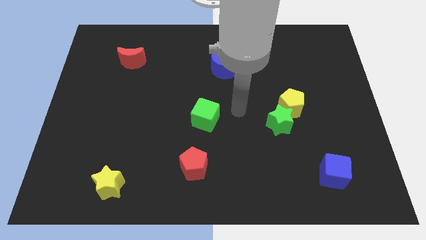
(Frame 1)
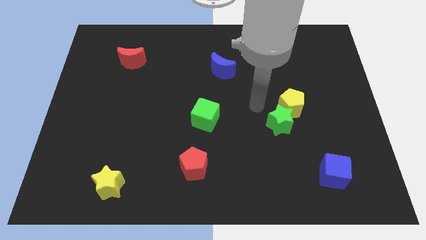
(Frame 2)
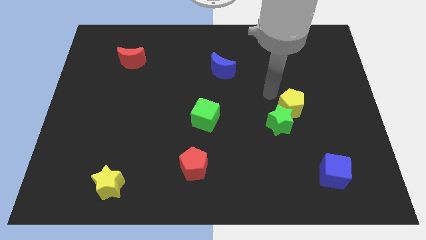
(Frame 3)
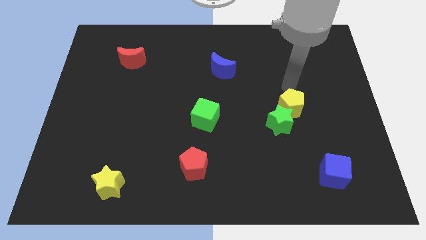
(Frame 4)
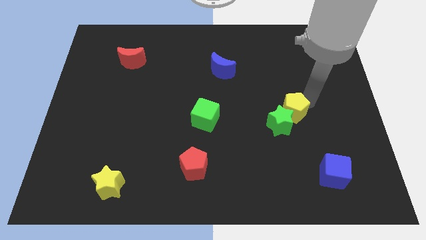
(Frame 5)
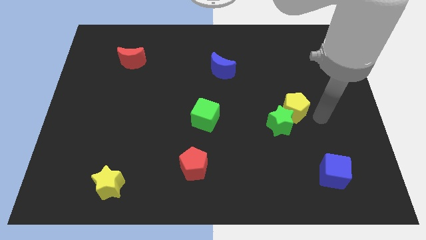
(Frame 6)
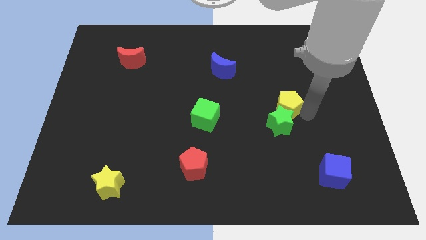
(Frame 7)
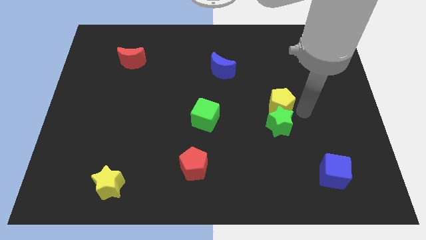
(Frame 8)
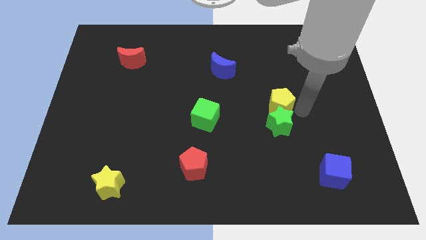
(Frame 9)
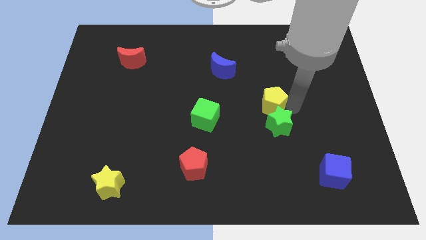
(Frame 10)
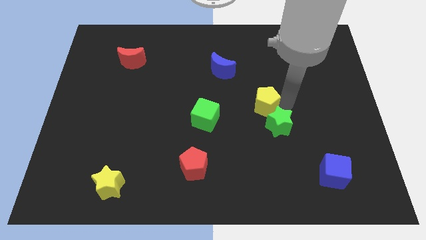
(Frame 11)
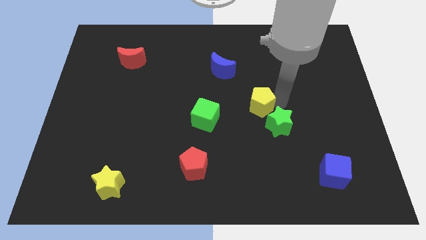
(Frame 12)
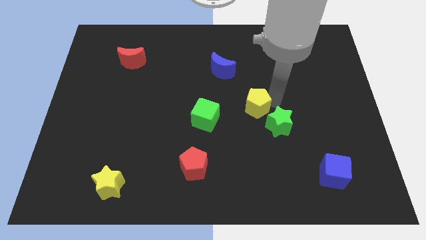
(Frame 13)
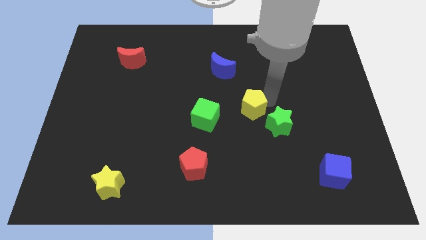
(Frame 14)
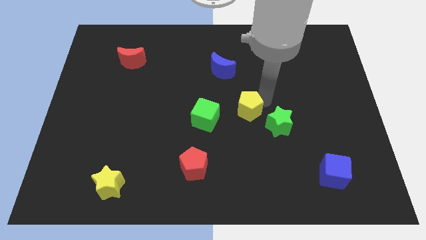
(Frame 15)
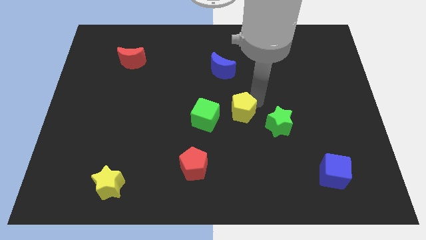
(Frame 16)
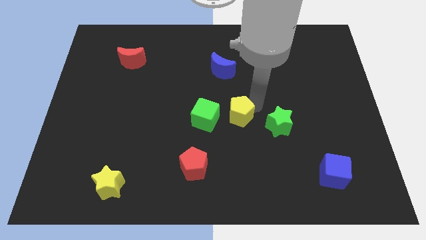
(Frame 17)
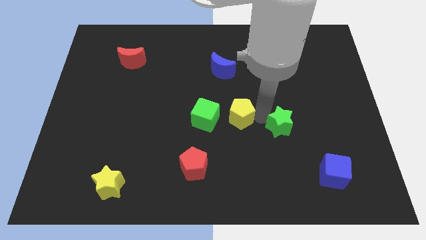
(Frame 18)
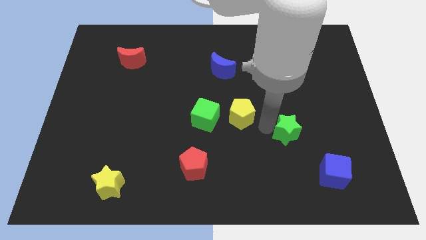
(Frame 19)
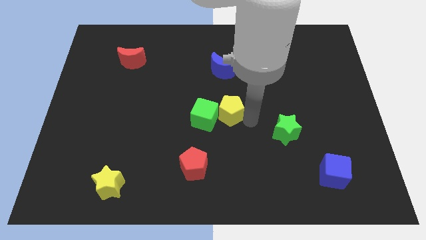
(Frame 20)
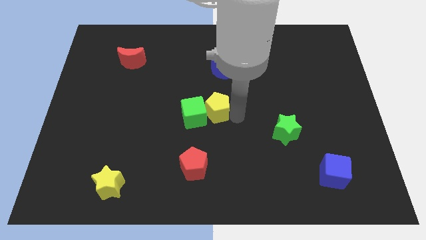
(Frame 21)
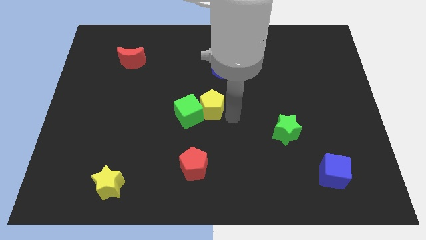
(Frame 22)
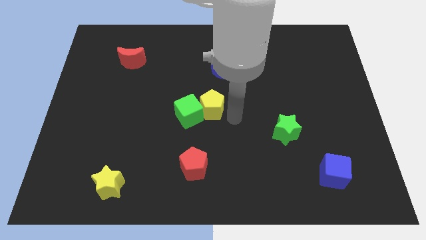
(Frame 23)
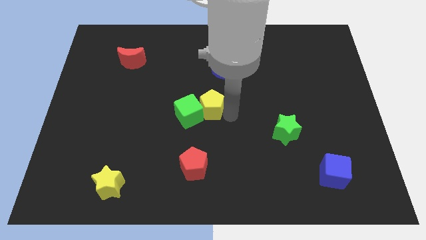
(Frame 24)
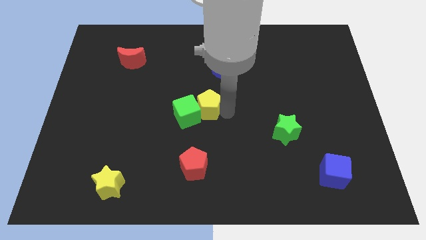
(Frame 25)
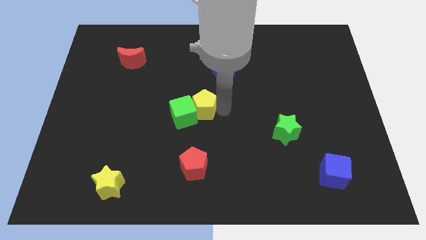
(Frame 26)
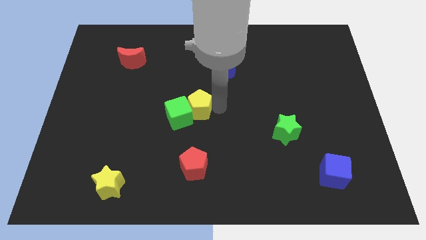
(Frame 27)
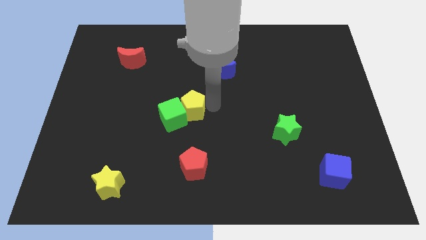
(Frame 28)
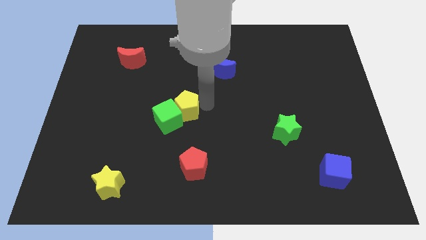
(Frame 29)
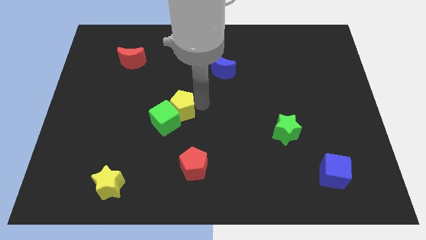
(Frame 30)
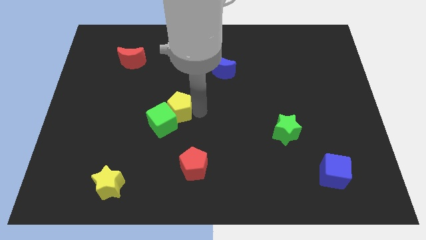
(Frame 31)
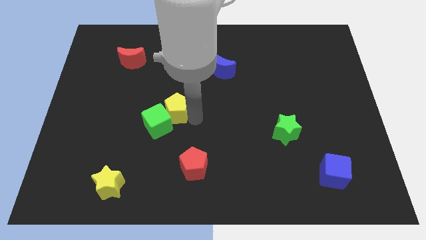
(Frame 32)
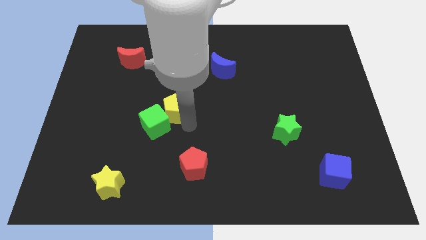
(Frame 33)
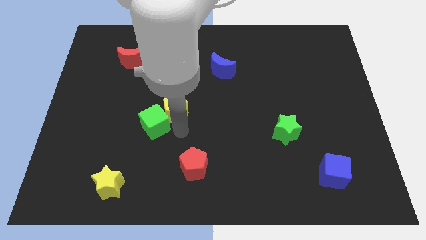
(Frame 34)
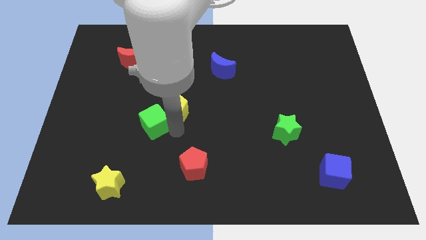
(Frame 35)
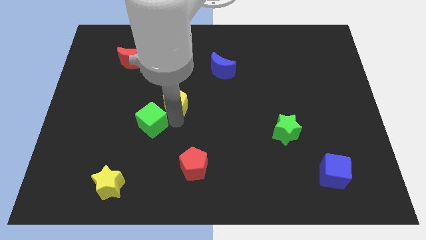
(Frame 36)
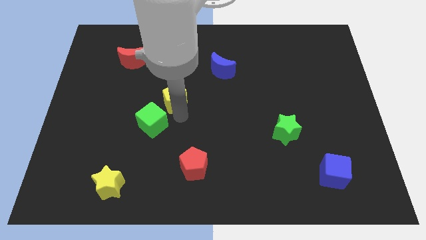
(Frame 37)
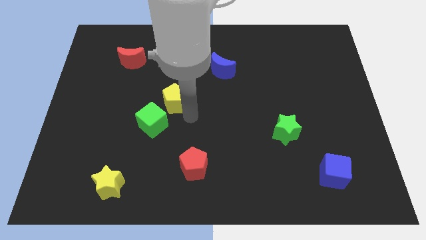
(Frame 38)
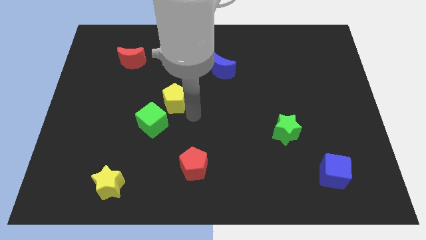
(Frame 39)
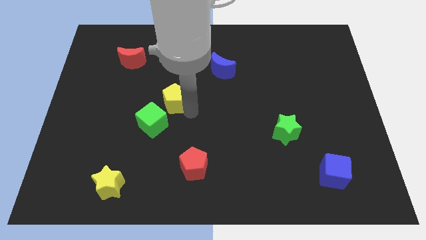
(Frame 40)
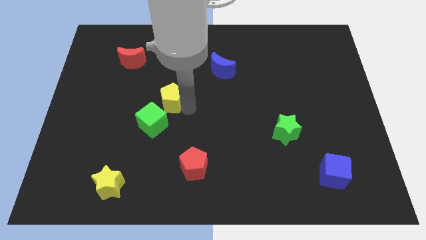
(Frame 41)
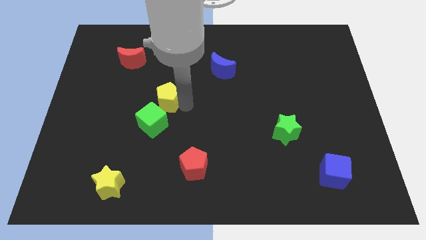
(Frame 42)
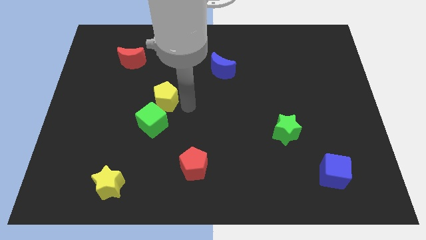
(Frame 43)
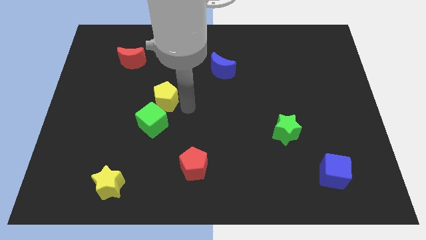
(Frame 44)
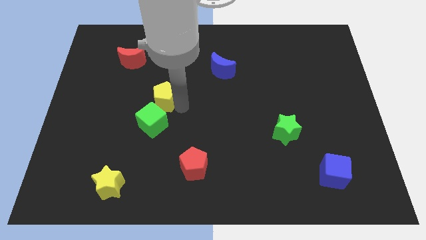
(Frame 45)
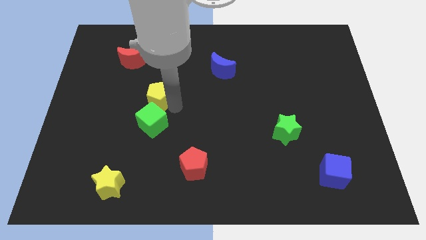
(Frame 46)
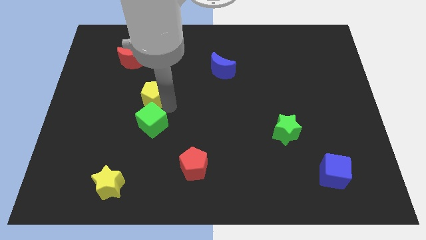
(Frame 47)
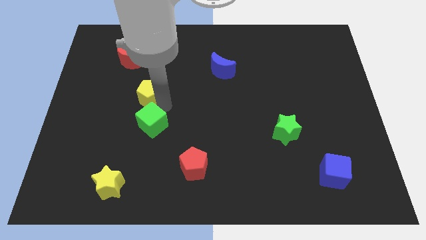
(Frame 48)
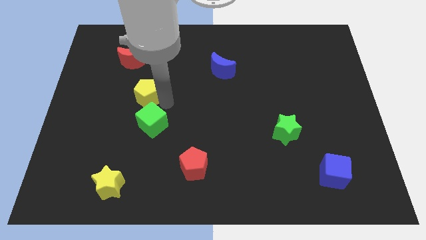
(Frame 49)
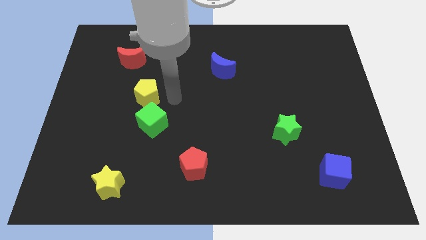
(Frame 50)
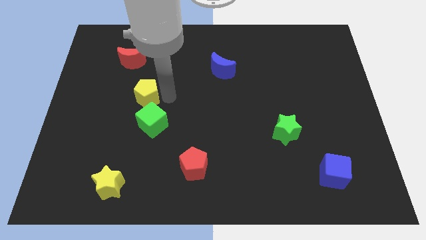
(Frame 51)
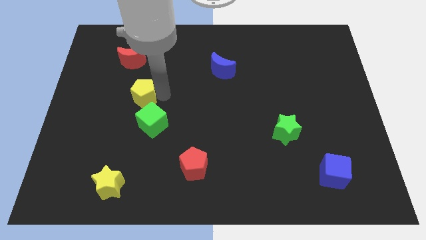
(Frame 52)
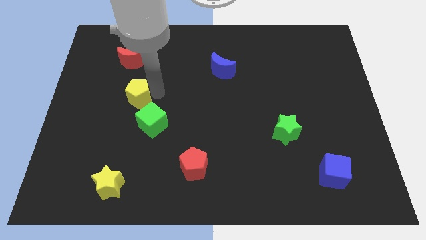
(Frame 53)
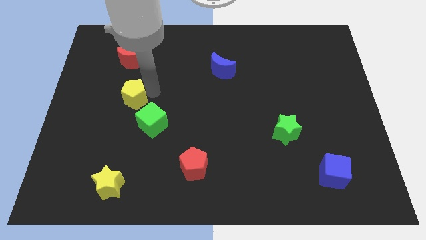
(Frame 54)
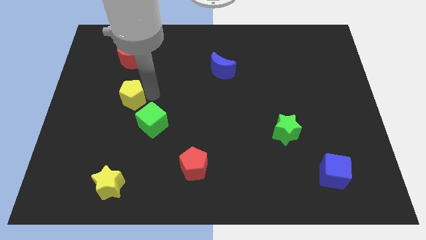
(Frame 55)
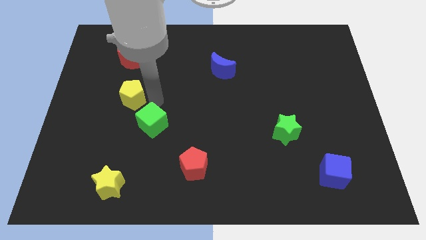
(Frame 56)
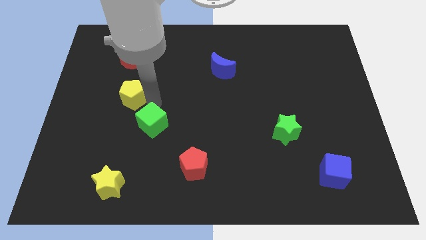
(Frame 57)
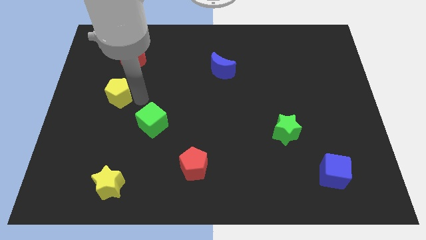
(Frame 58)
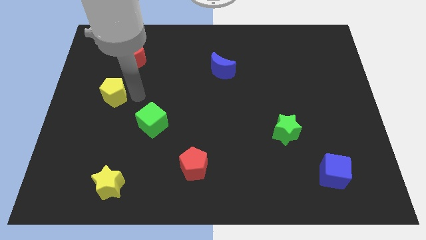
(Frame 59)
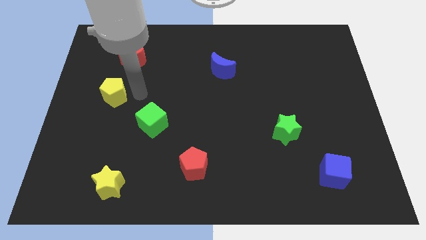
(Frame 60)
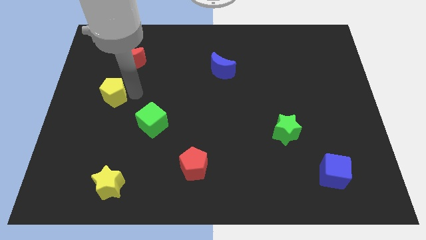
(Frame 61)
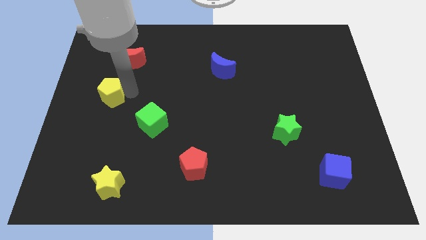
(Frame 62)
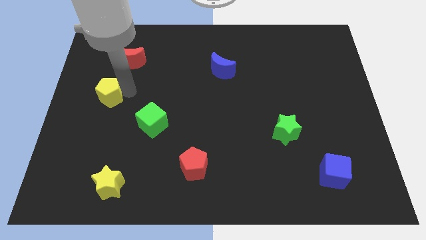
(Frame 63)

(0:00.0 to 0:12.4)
put the yellow pentagon to the center left

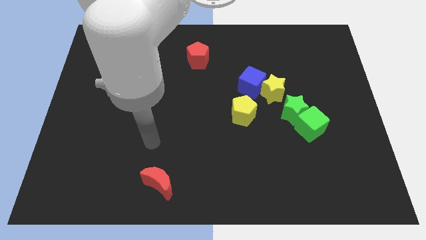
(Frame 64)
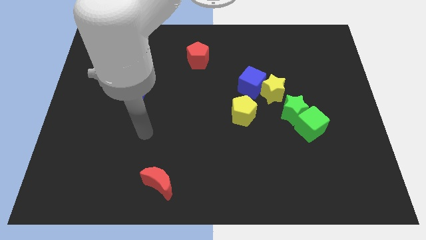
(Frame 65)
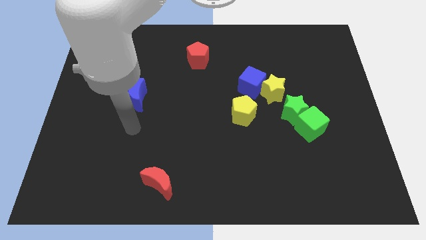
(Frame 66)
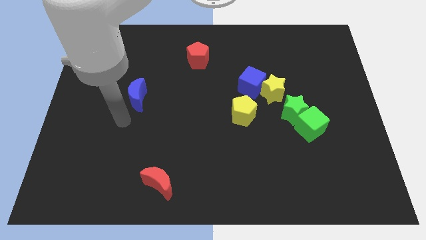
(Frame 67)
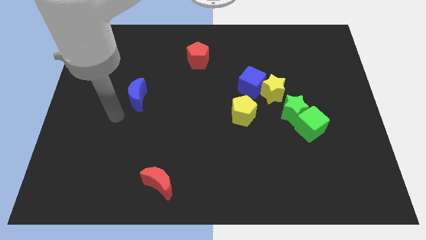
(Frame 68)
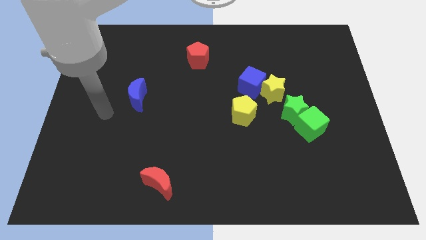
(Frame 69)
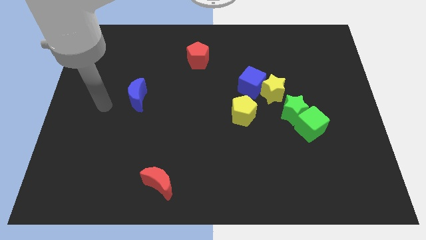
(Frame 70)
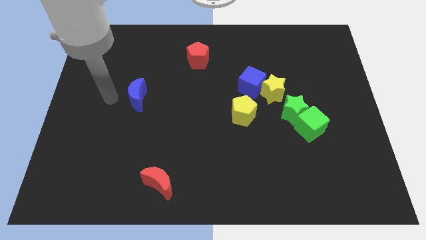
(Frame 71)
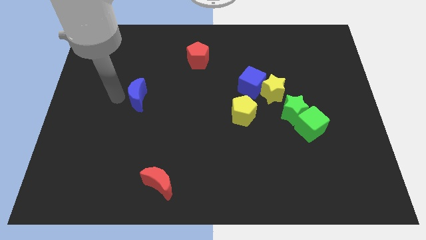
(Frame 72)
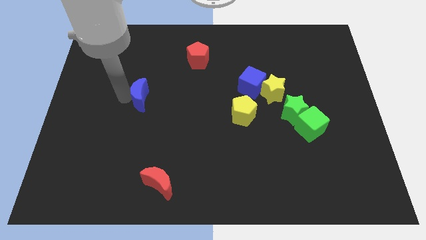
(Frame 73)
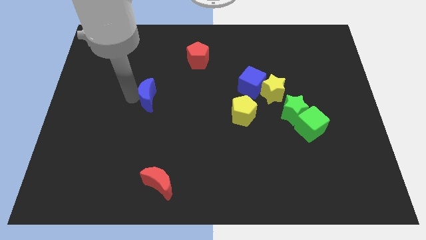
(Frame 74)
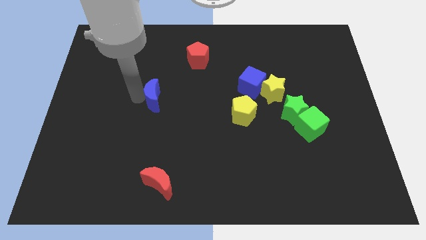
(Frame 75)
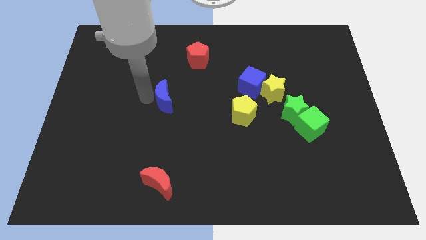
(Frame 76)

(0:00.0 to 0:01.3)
move the blue moon to the middle
